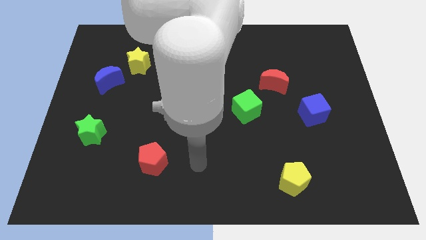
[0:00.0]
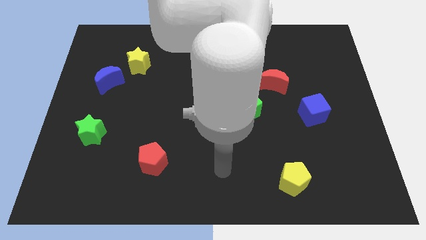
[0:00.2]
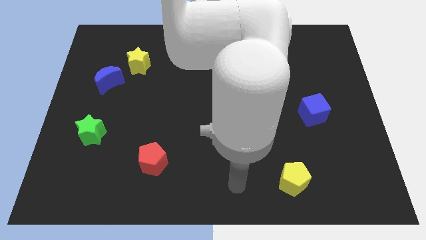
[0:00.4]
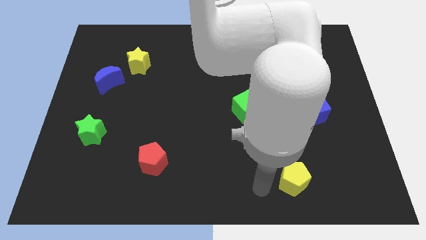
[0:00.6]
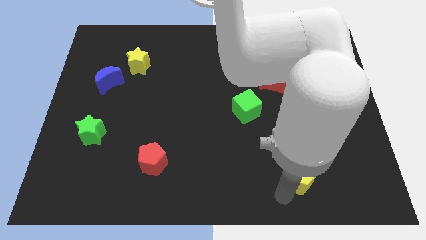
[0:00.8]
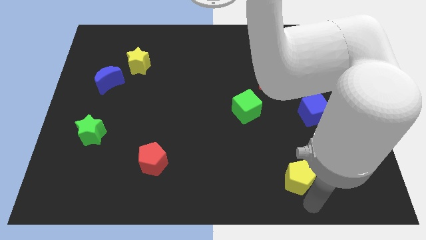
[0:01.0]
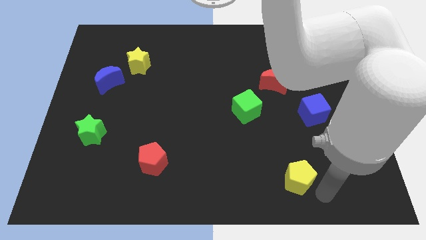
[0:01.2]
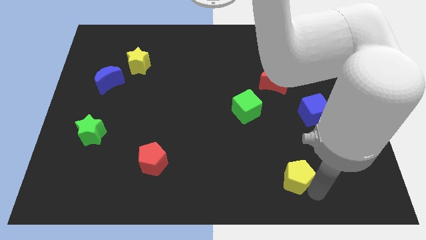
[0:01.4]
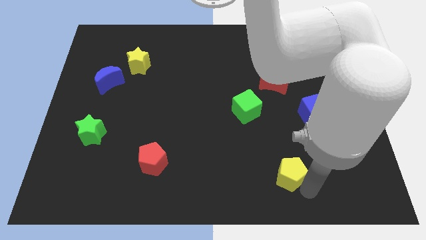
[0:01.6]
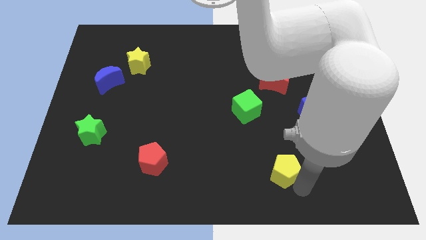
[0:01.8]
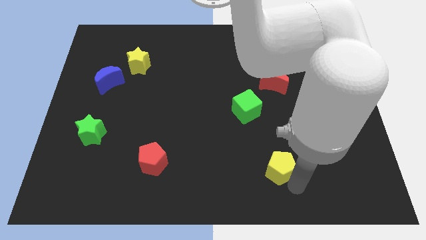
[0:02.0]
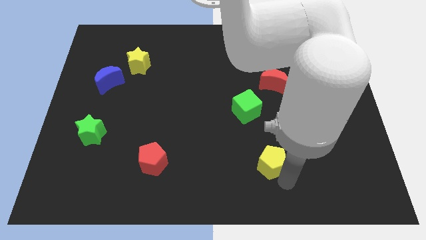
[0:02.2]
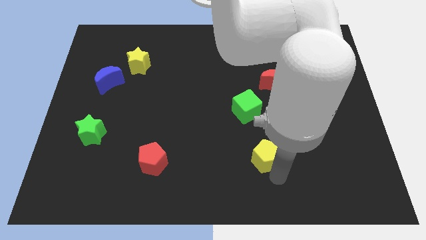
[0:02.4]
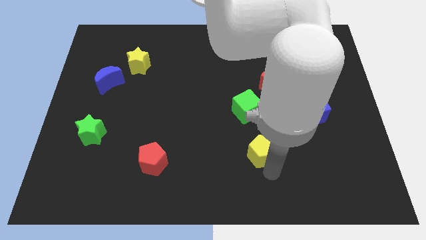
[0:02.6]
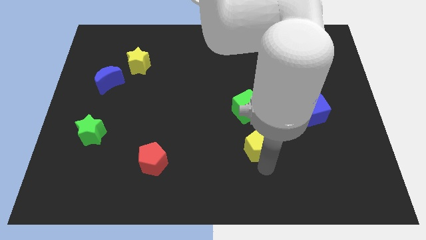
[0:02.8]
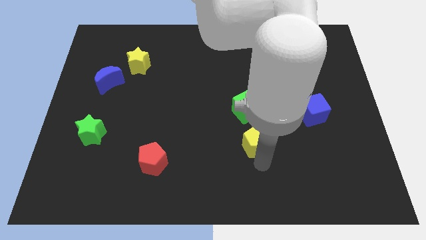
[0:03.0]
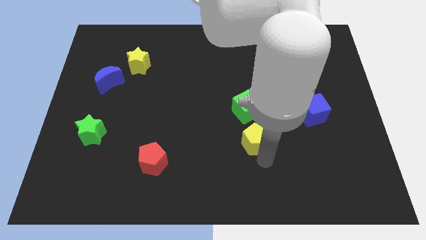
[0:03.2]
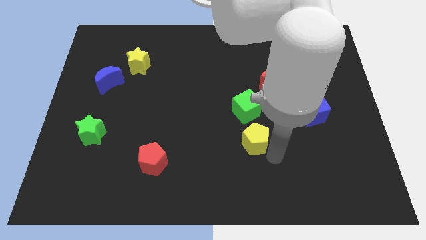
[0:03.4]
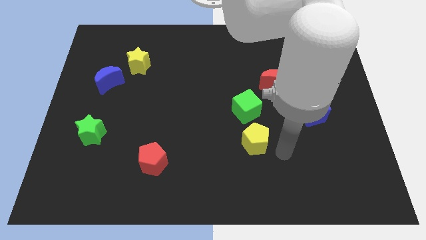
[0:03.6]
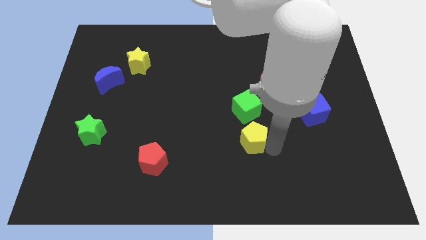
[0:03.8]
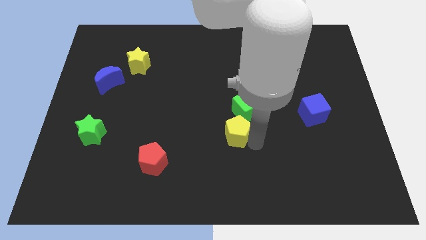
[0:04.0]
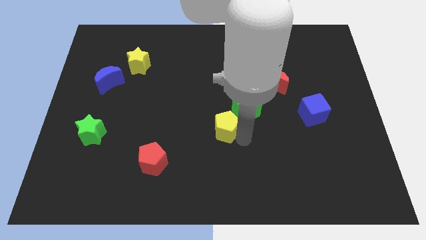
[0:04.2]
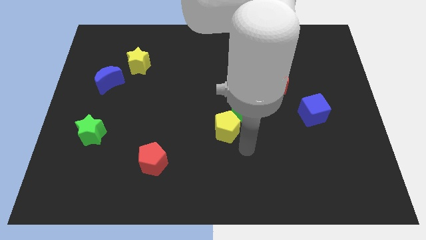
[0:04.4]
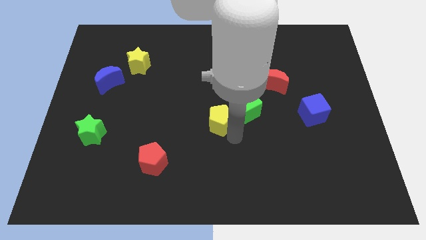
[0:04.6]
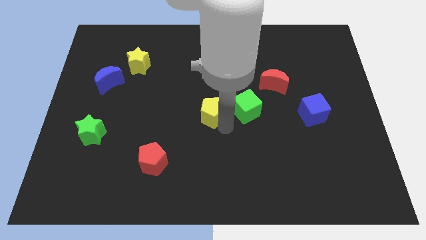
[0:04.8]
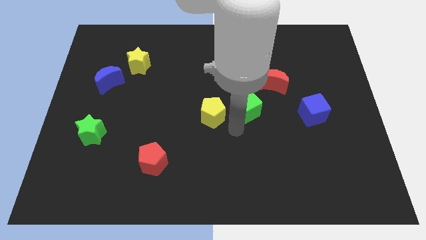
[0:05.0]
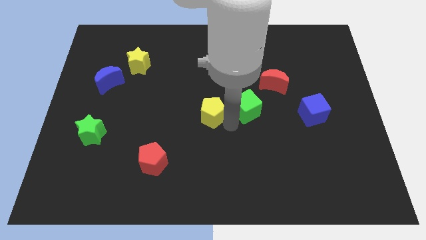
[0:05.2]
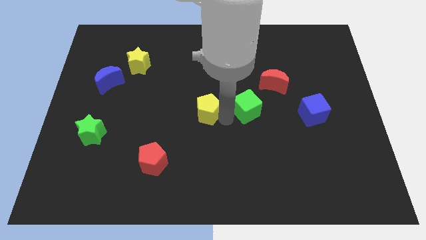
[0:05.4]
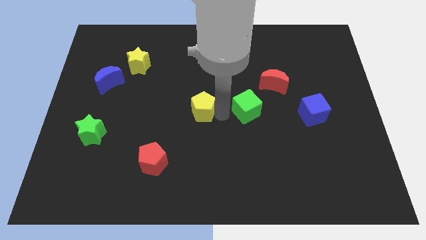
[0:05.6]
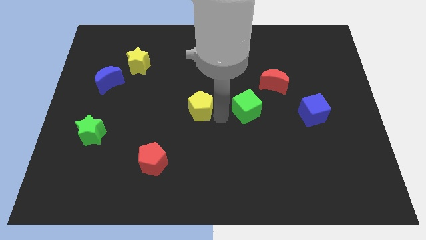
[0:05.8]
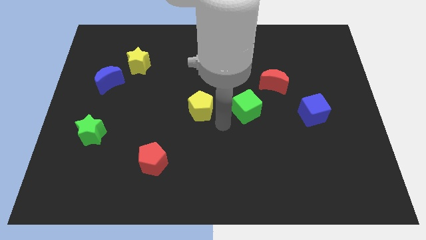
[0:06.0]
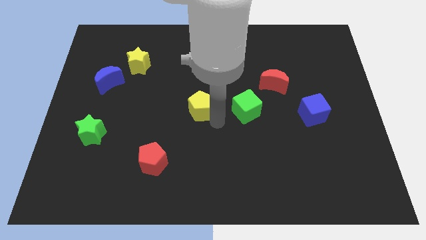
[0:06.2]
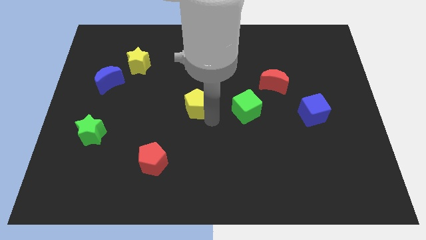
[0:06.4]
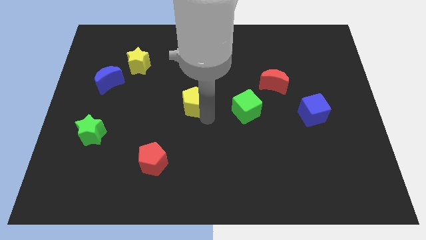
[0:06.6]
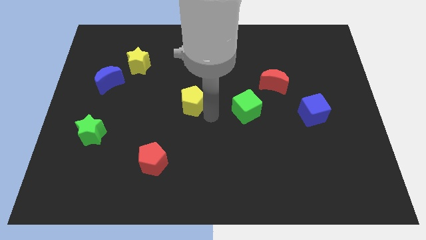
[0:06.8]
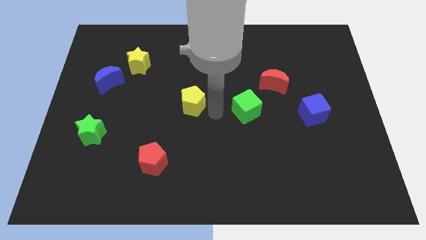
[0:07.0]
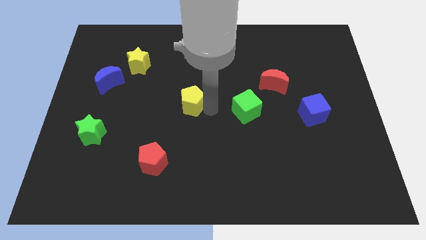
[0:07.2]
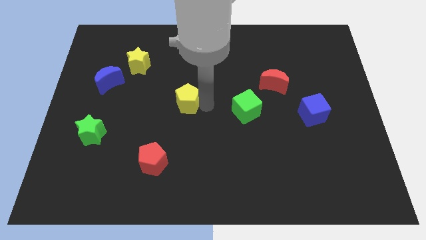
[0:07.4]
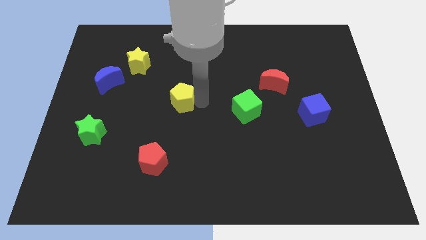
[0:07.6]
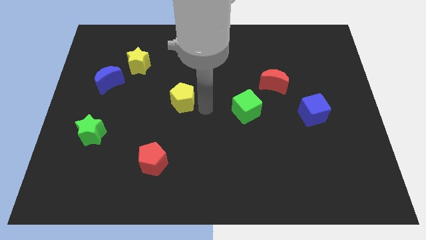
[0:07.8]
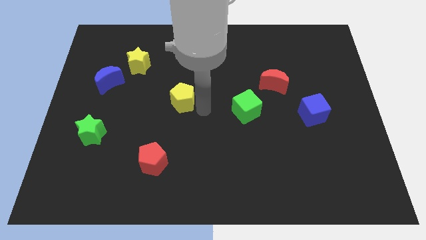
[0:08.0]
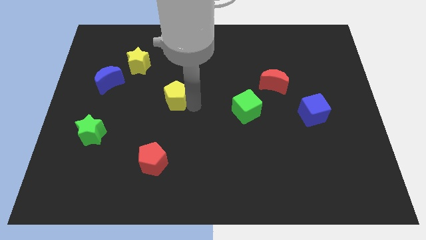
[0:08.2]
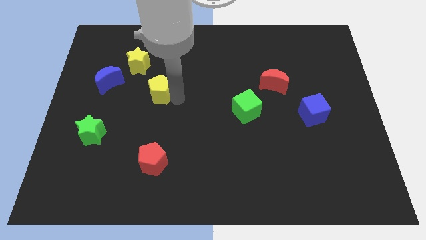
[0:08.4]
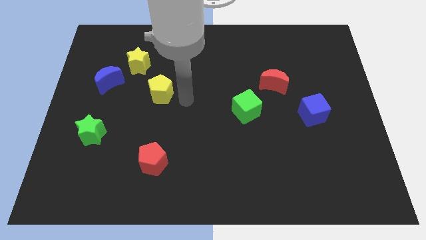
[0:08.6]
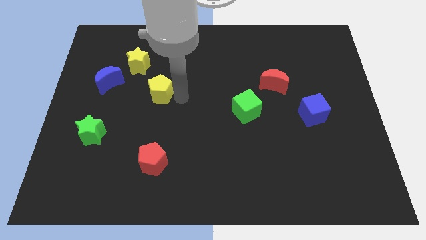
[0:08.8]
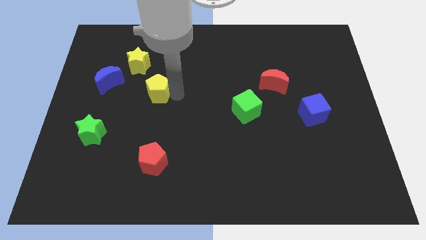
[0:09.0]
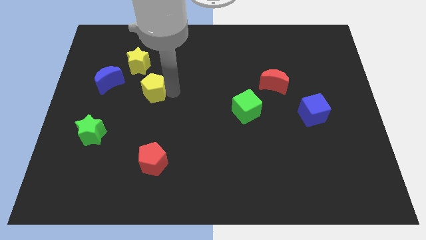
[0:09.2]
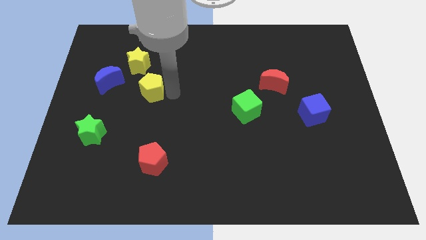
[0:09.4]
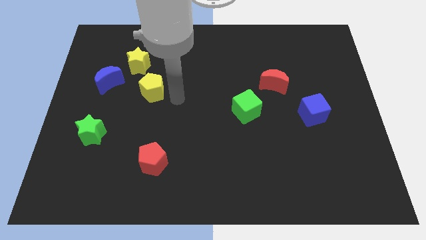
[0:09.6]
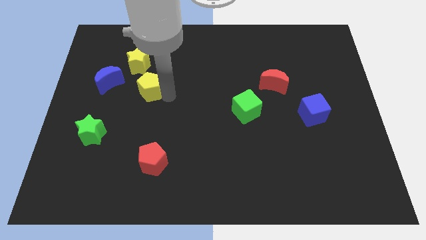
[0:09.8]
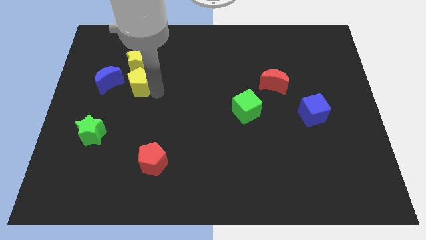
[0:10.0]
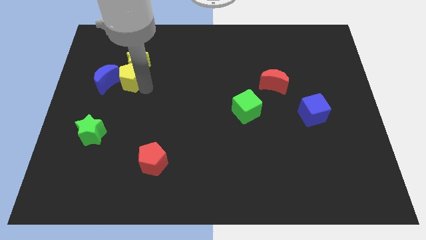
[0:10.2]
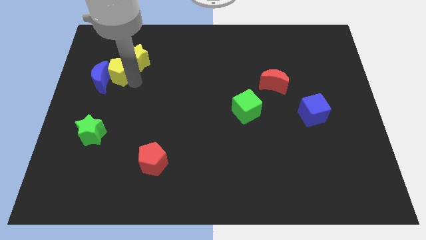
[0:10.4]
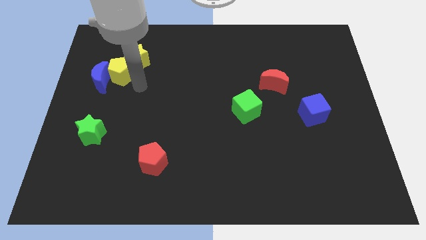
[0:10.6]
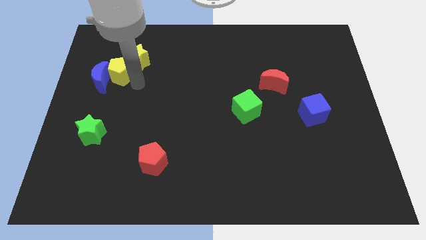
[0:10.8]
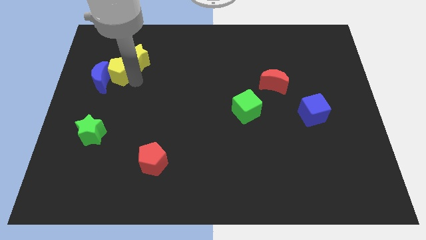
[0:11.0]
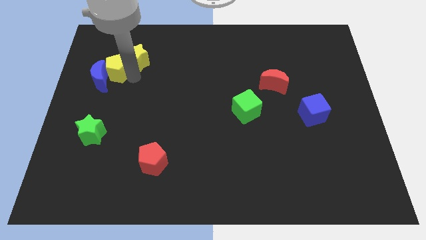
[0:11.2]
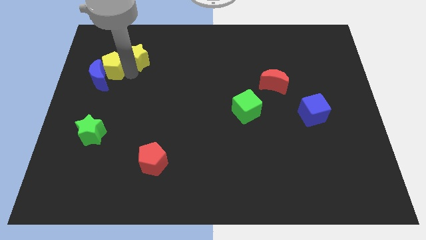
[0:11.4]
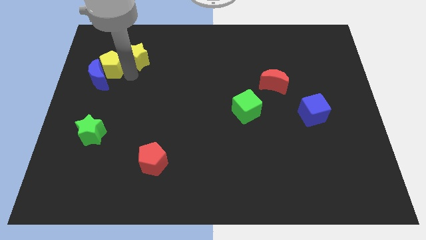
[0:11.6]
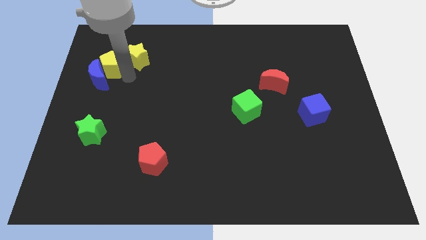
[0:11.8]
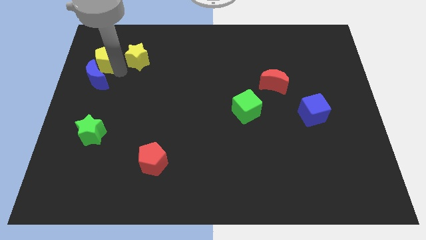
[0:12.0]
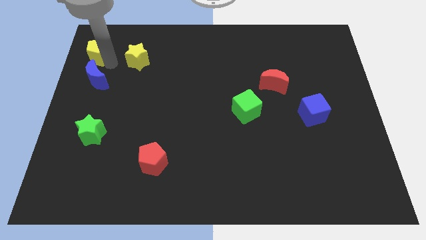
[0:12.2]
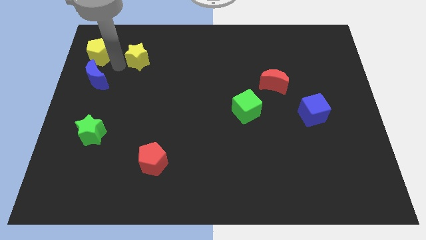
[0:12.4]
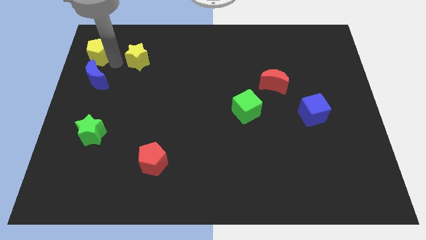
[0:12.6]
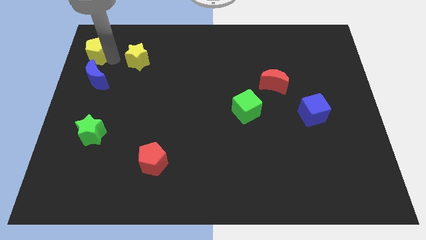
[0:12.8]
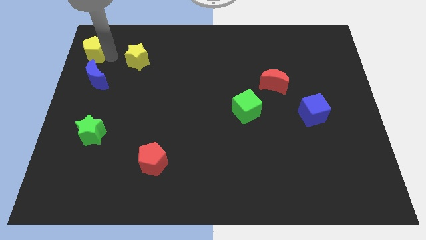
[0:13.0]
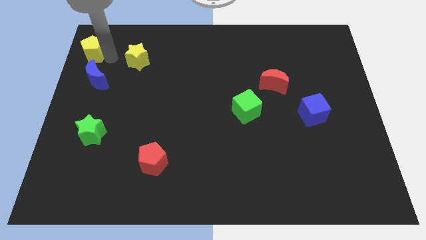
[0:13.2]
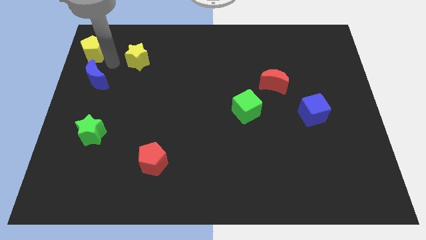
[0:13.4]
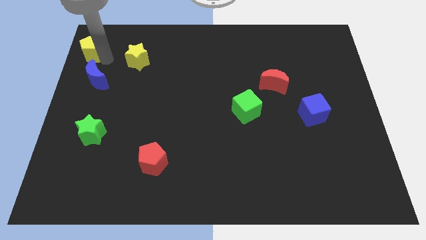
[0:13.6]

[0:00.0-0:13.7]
push the yellow pentagon to the top left corner

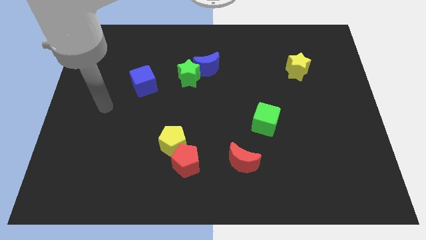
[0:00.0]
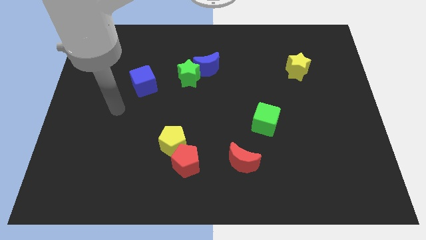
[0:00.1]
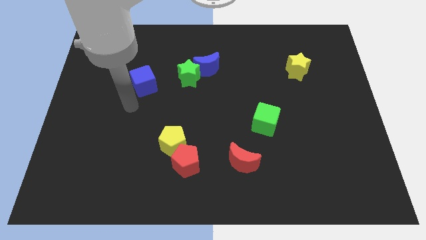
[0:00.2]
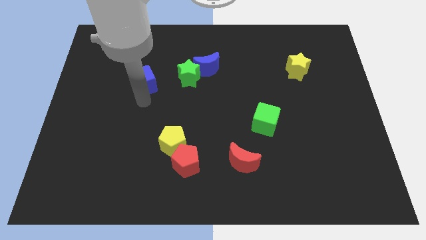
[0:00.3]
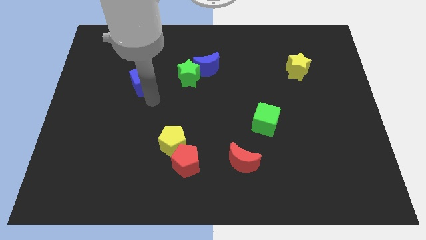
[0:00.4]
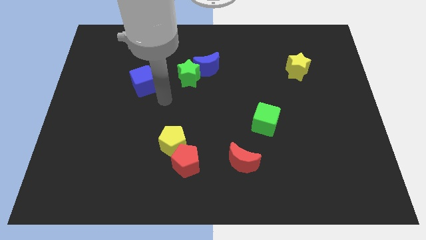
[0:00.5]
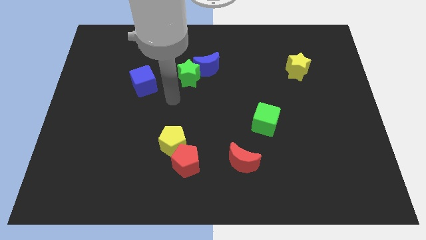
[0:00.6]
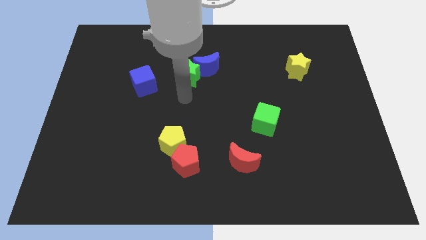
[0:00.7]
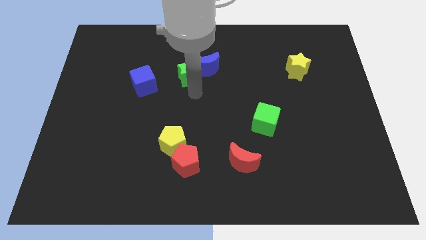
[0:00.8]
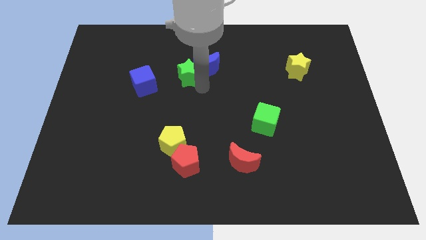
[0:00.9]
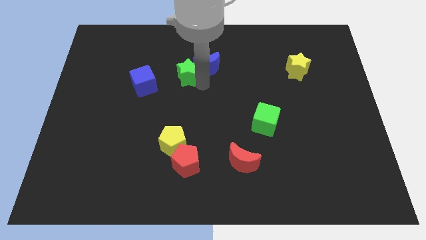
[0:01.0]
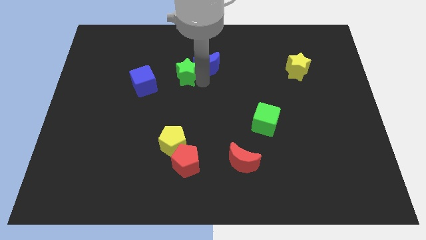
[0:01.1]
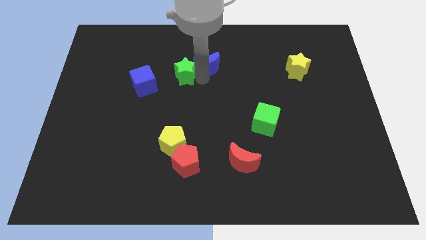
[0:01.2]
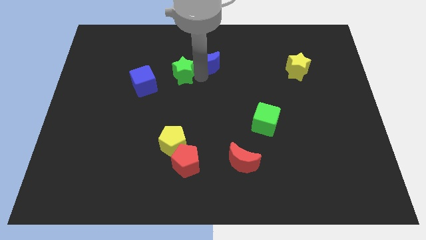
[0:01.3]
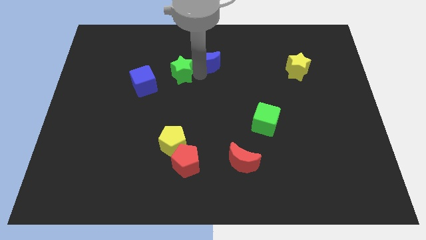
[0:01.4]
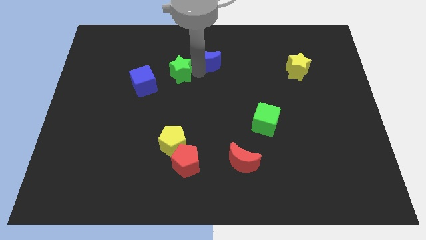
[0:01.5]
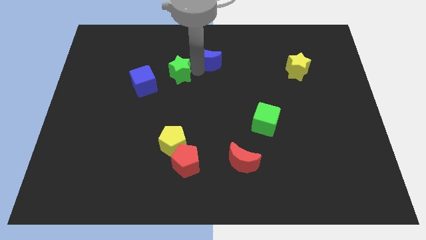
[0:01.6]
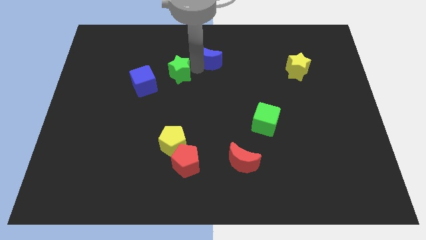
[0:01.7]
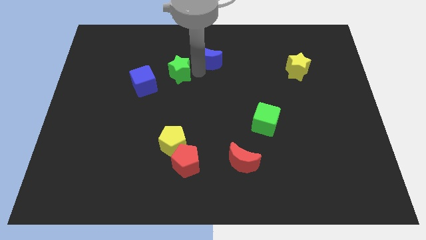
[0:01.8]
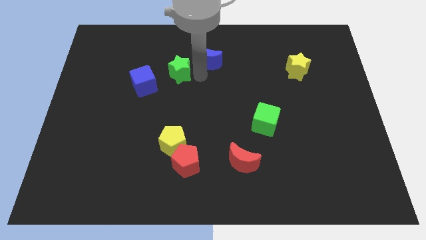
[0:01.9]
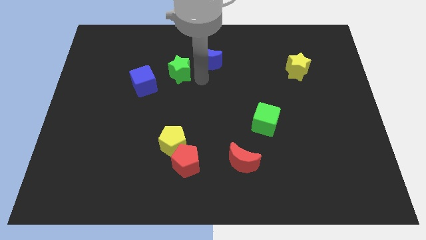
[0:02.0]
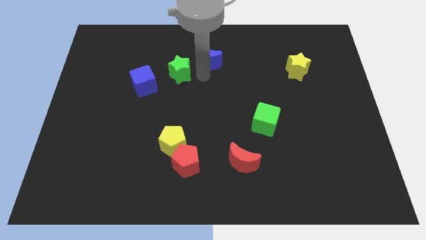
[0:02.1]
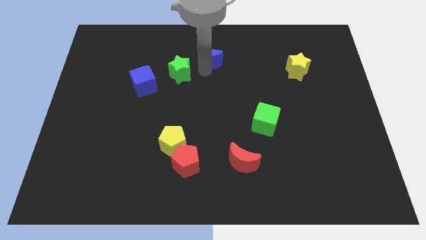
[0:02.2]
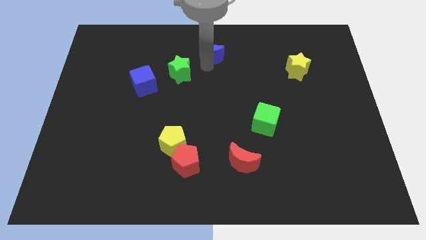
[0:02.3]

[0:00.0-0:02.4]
push the blue moon to the top side
